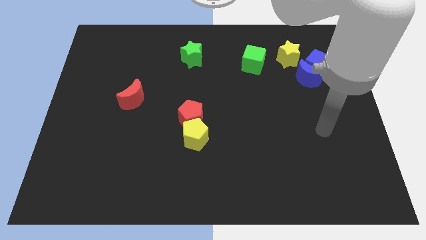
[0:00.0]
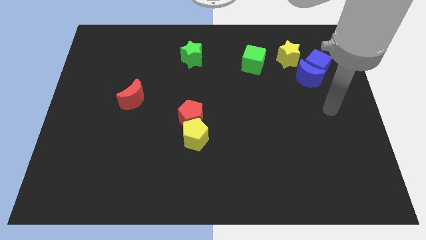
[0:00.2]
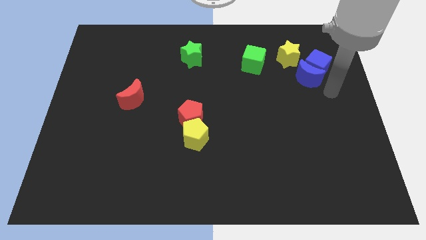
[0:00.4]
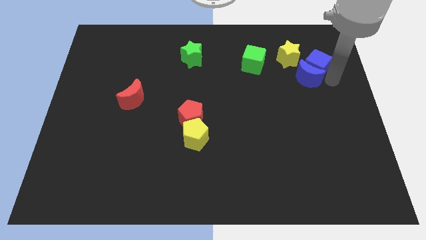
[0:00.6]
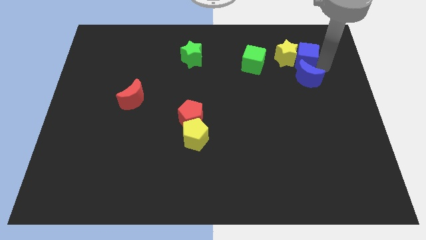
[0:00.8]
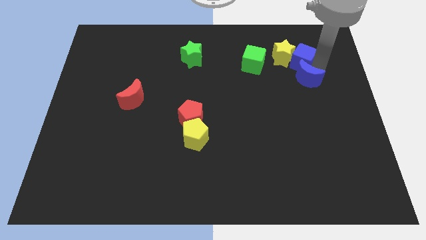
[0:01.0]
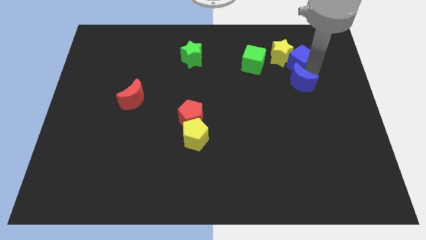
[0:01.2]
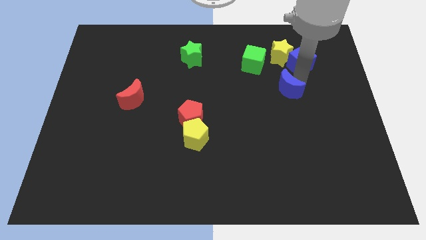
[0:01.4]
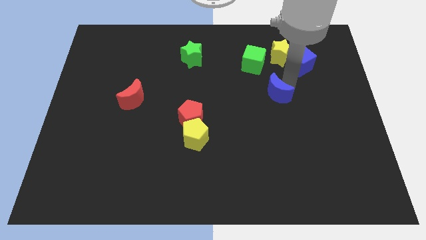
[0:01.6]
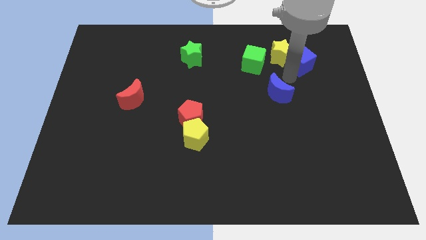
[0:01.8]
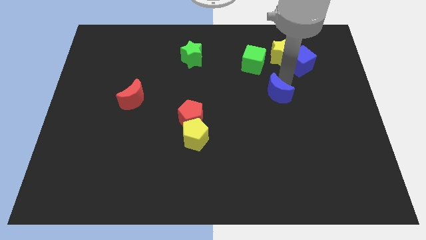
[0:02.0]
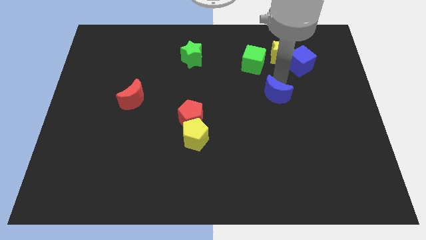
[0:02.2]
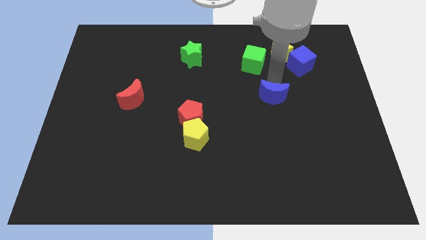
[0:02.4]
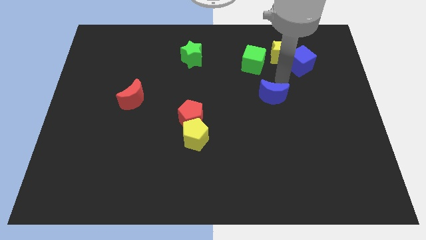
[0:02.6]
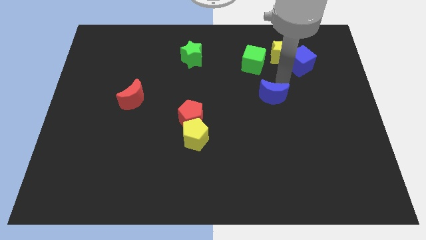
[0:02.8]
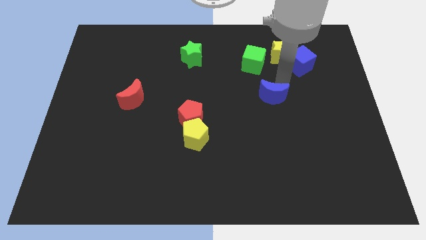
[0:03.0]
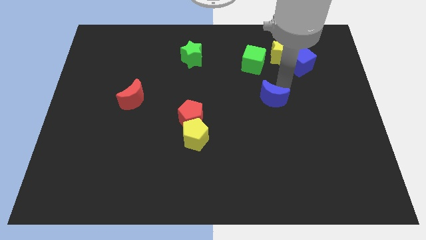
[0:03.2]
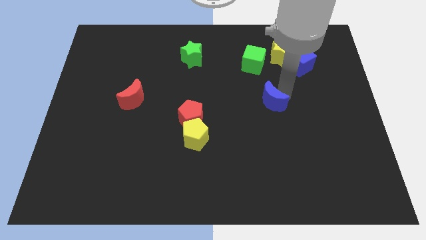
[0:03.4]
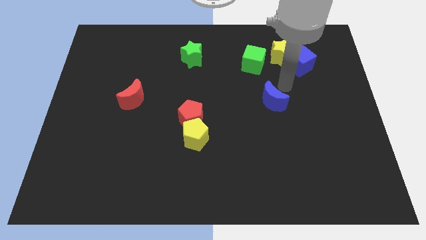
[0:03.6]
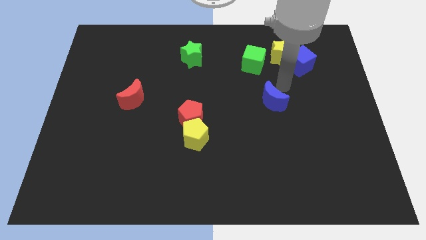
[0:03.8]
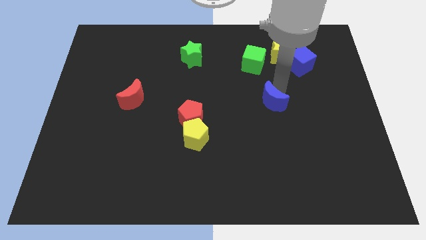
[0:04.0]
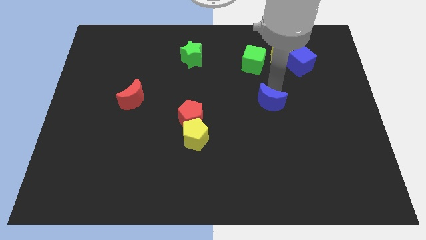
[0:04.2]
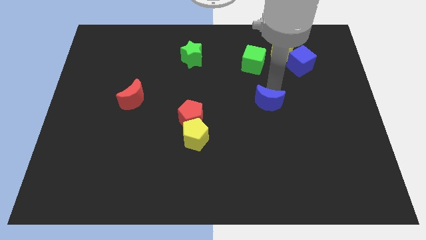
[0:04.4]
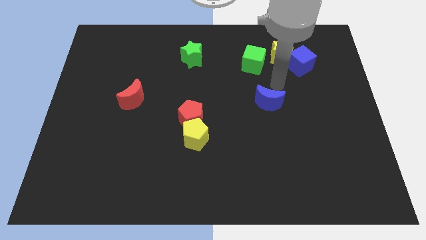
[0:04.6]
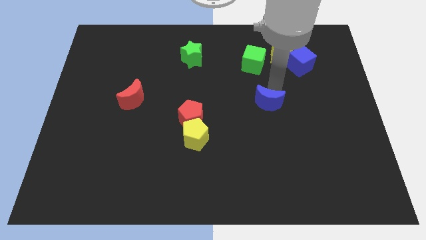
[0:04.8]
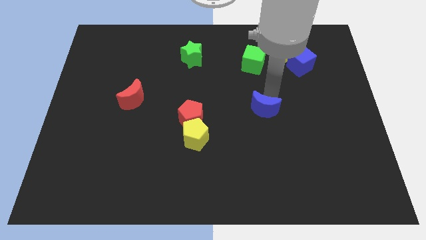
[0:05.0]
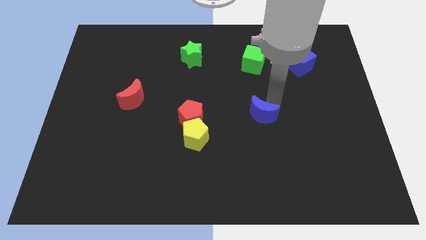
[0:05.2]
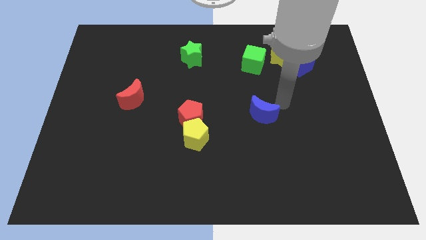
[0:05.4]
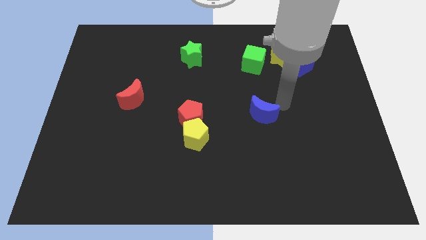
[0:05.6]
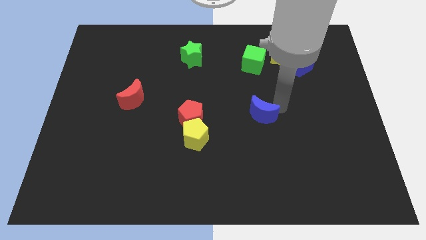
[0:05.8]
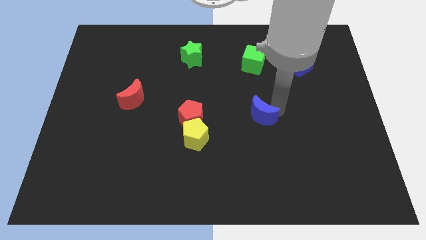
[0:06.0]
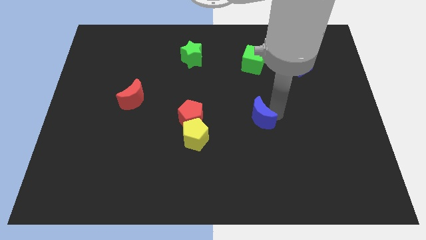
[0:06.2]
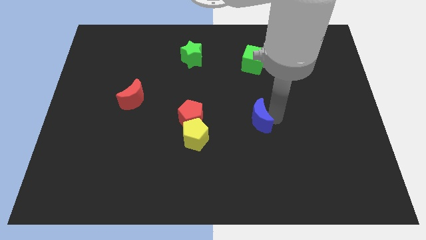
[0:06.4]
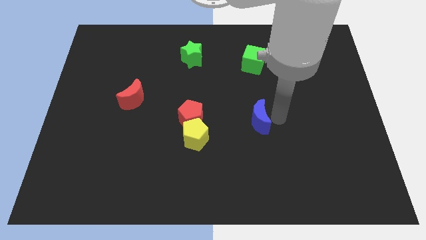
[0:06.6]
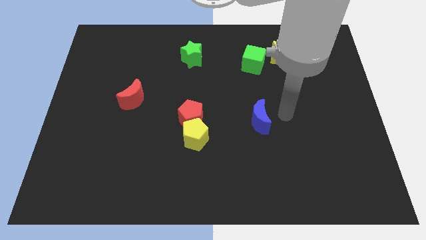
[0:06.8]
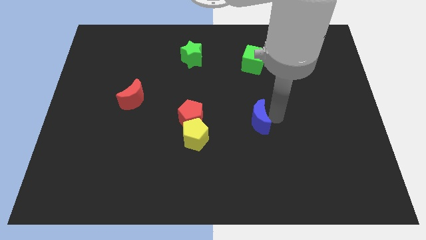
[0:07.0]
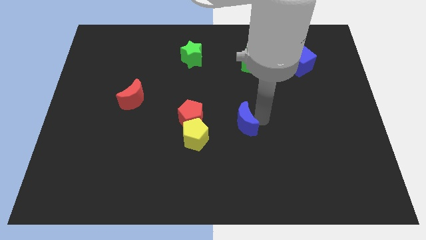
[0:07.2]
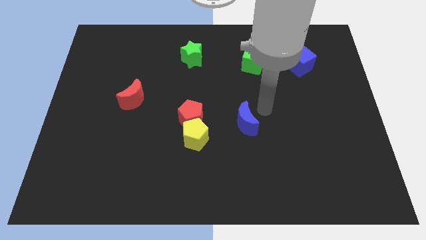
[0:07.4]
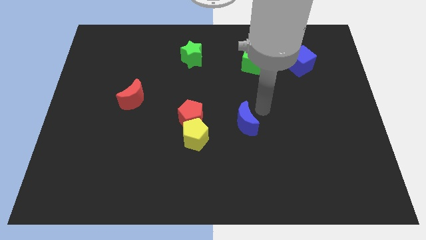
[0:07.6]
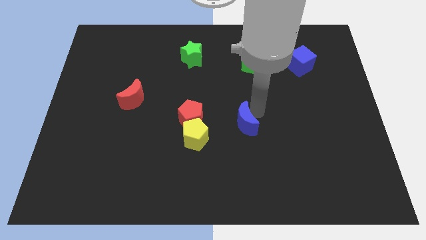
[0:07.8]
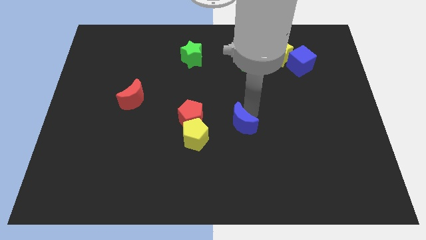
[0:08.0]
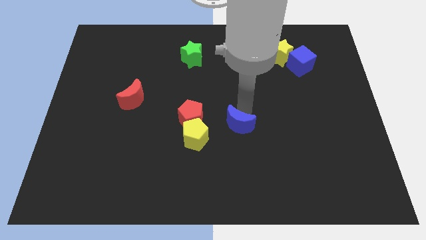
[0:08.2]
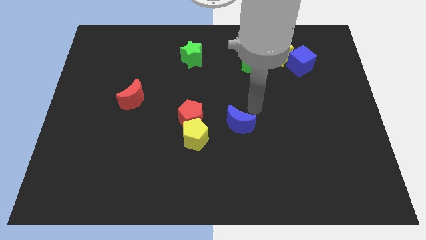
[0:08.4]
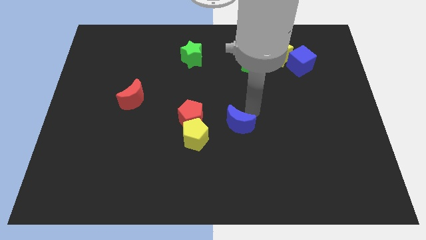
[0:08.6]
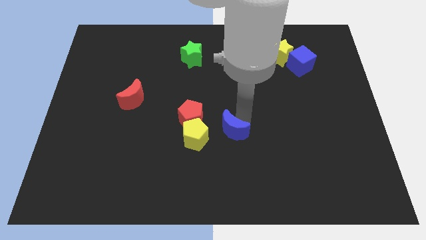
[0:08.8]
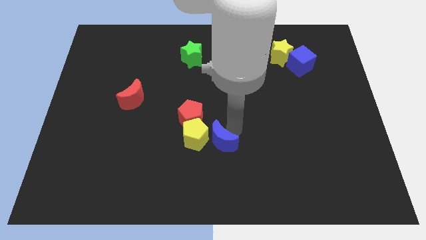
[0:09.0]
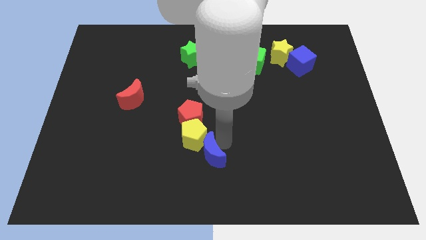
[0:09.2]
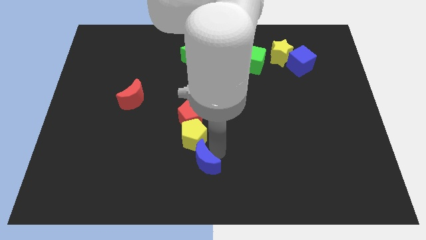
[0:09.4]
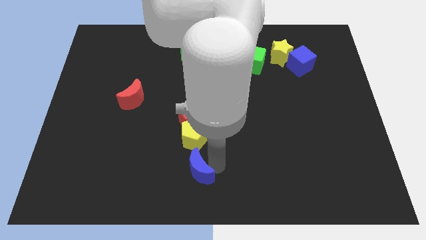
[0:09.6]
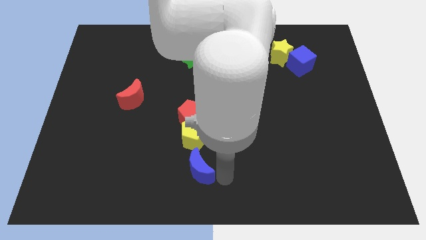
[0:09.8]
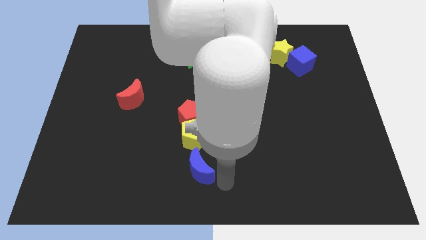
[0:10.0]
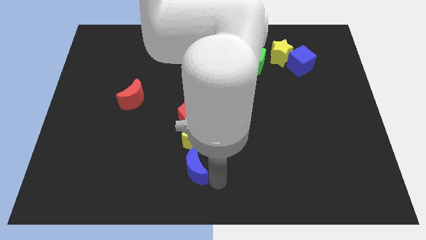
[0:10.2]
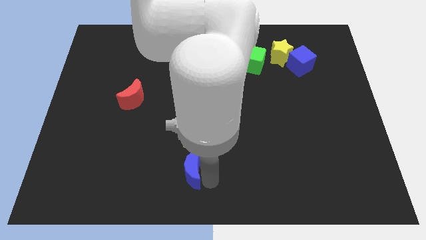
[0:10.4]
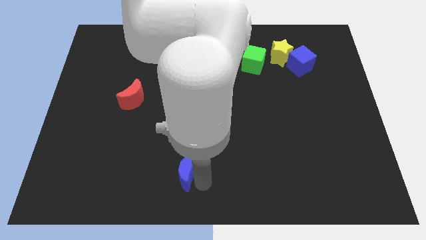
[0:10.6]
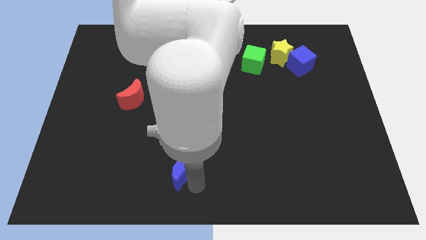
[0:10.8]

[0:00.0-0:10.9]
move the blue moon to the bottom left side of the yellow pentagon

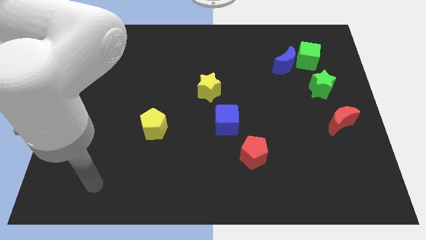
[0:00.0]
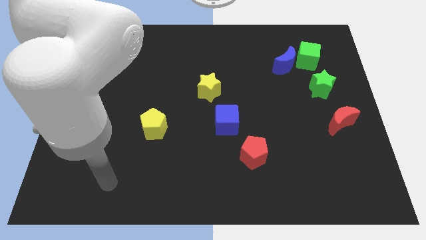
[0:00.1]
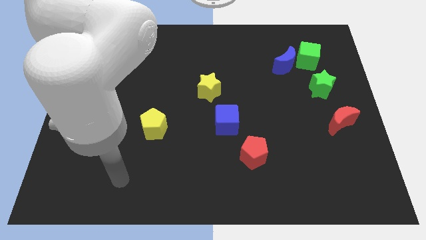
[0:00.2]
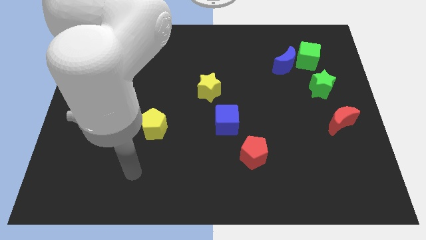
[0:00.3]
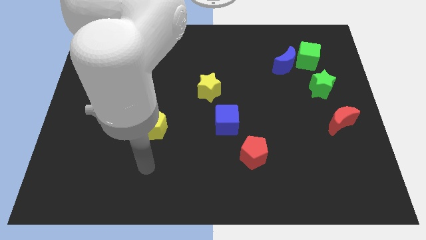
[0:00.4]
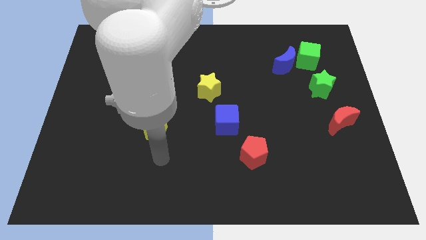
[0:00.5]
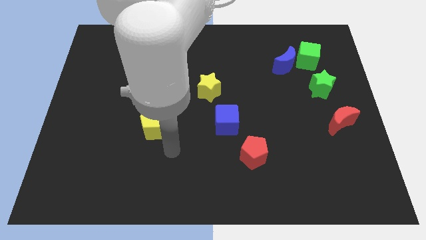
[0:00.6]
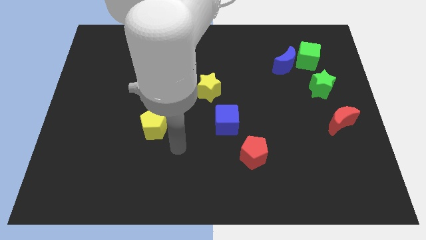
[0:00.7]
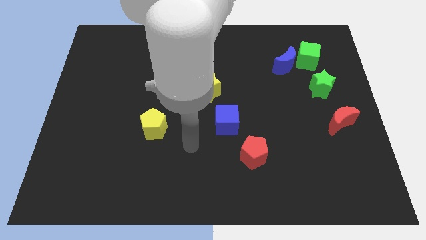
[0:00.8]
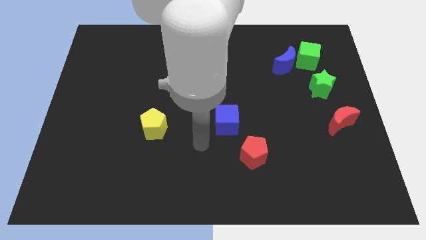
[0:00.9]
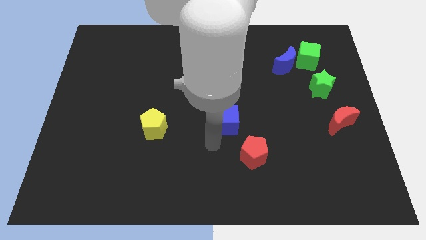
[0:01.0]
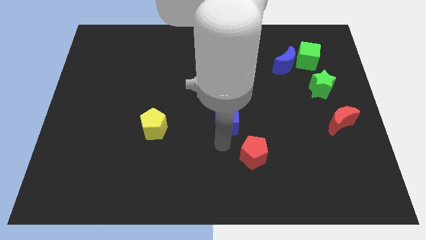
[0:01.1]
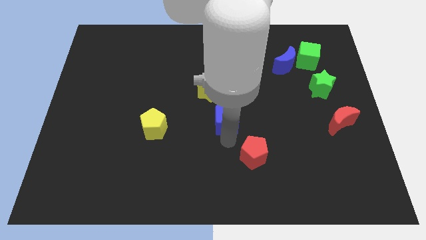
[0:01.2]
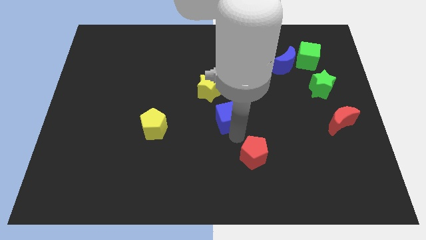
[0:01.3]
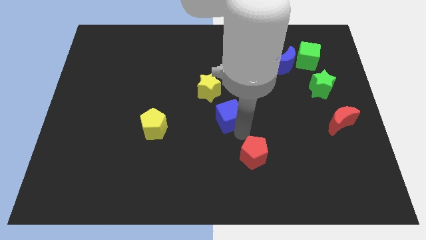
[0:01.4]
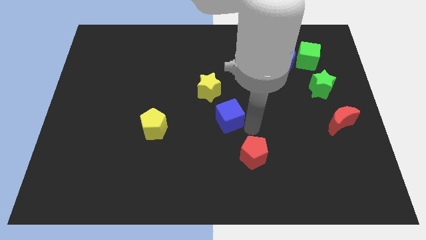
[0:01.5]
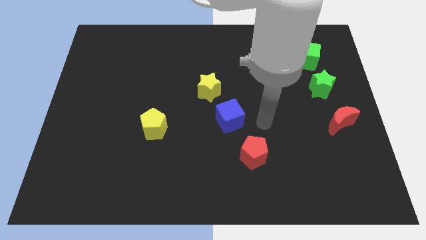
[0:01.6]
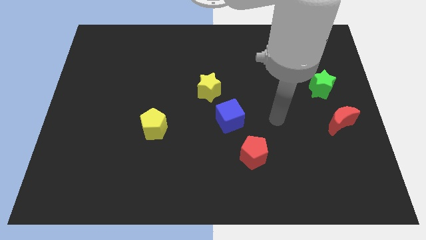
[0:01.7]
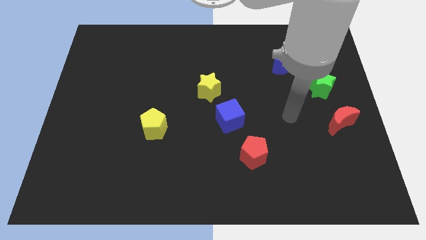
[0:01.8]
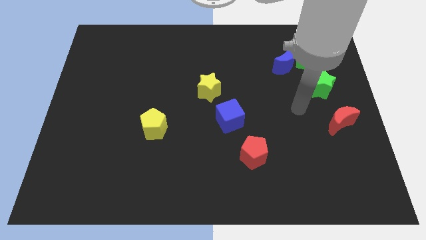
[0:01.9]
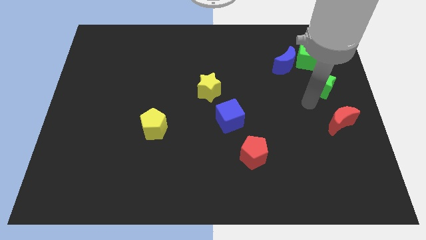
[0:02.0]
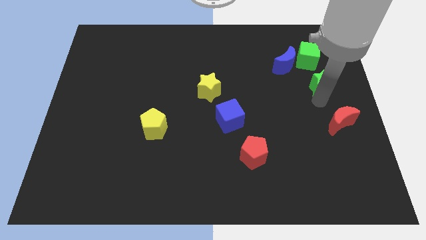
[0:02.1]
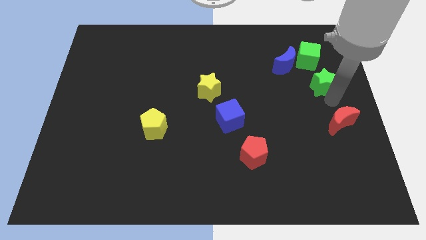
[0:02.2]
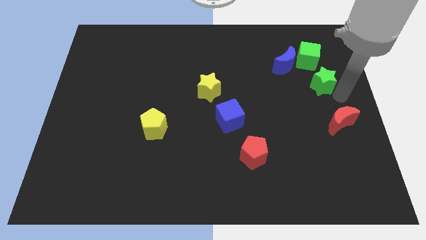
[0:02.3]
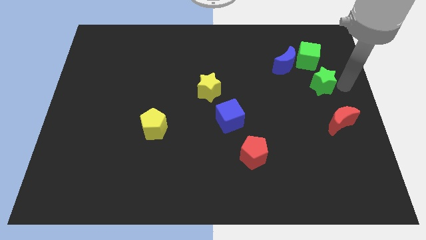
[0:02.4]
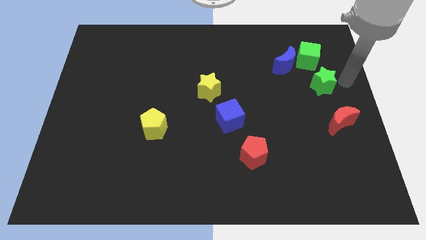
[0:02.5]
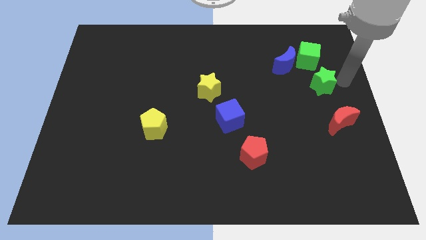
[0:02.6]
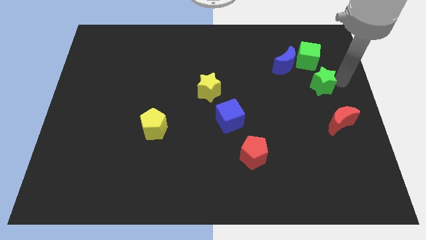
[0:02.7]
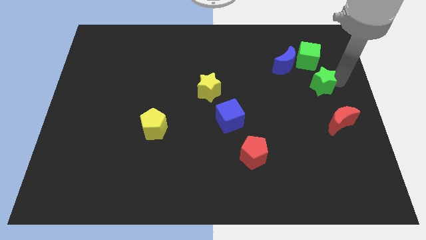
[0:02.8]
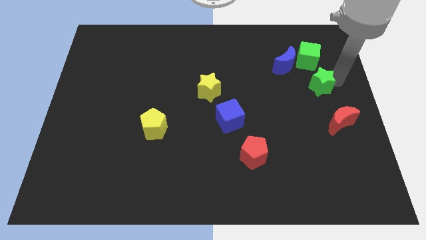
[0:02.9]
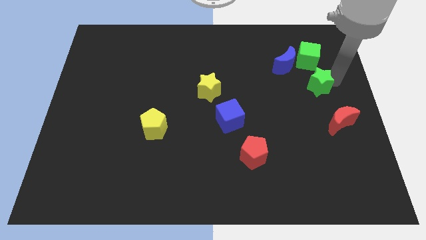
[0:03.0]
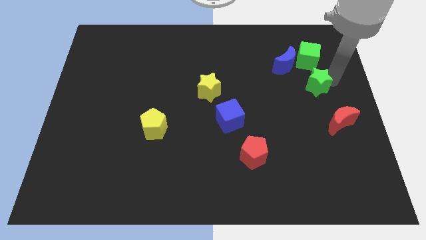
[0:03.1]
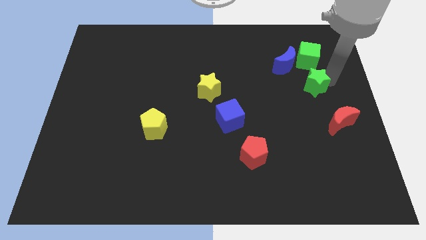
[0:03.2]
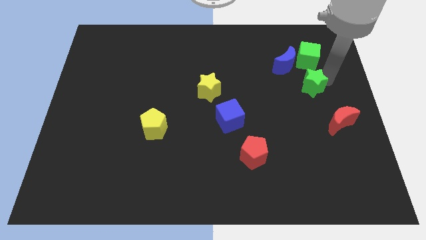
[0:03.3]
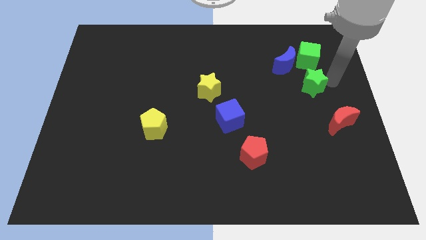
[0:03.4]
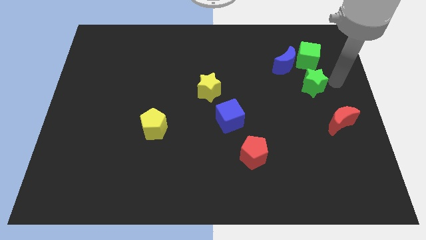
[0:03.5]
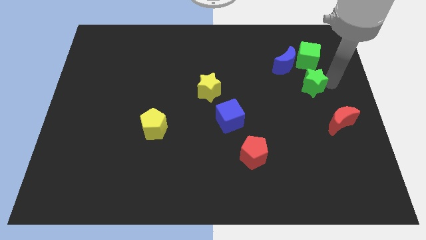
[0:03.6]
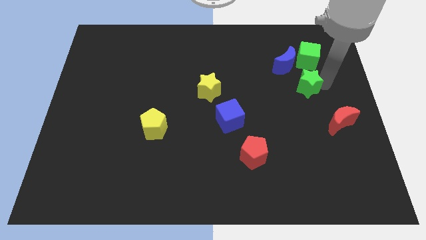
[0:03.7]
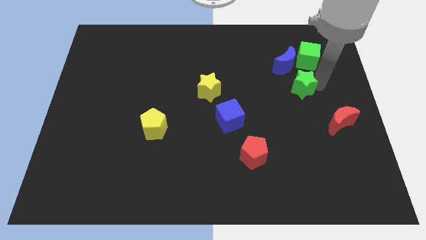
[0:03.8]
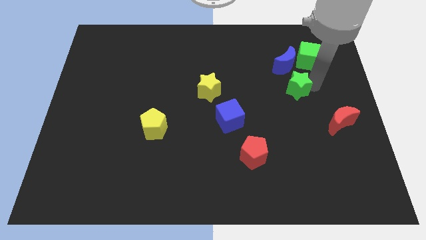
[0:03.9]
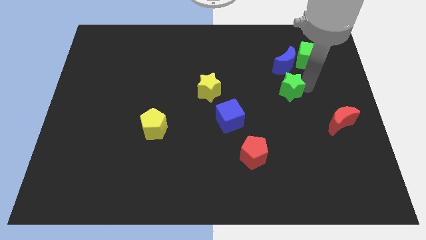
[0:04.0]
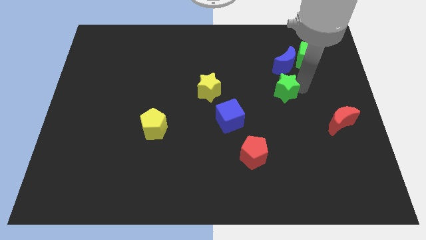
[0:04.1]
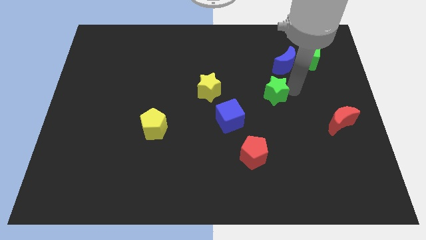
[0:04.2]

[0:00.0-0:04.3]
push the green star just right of the yellow star
